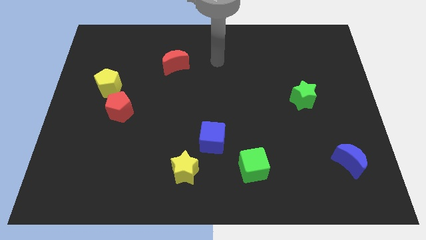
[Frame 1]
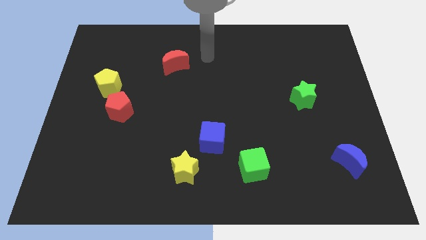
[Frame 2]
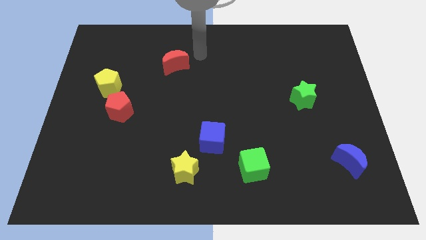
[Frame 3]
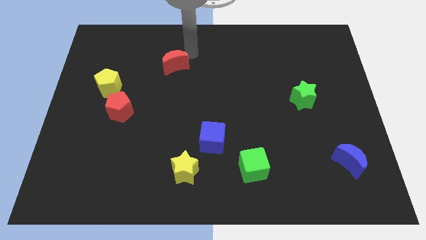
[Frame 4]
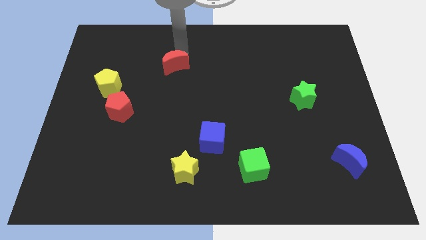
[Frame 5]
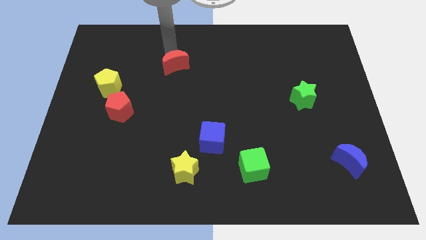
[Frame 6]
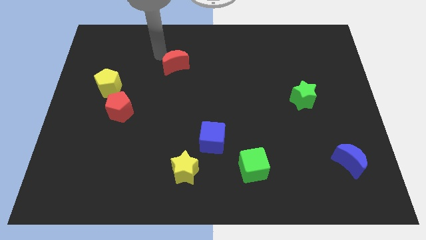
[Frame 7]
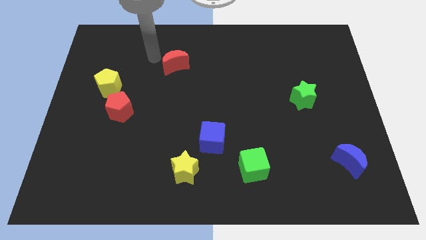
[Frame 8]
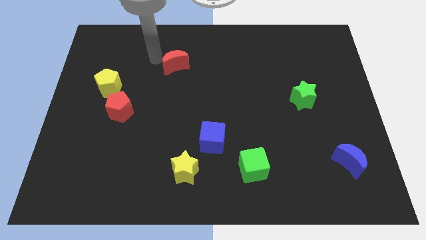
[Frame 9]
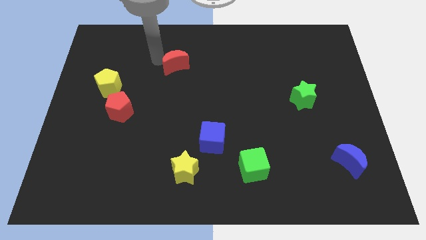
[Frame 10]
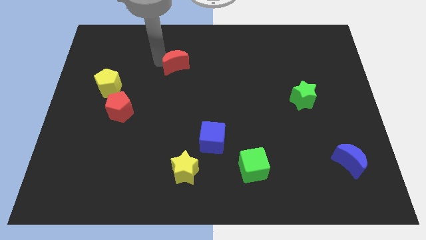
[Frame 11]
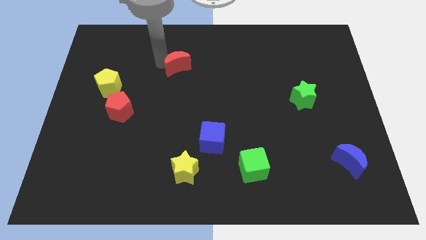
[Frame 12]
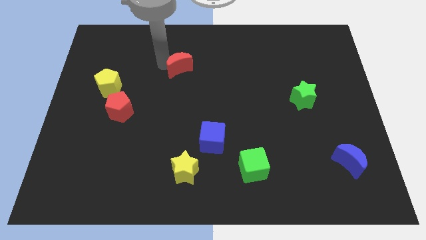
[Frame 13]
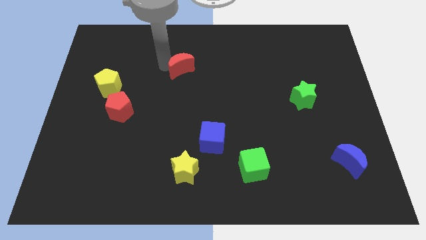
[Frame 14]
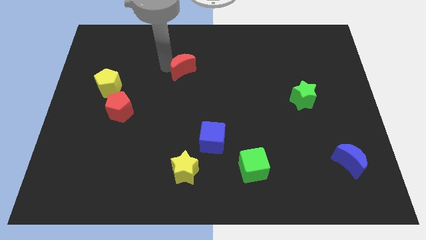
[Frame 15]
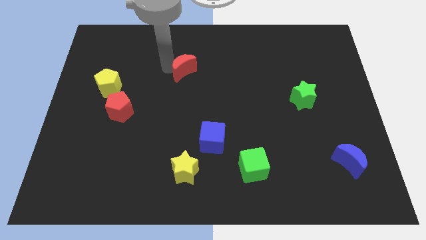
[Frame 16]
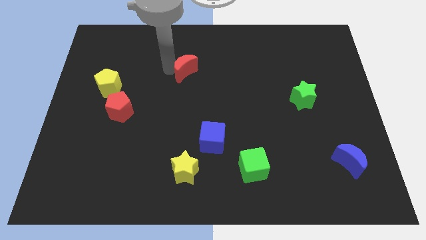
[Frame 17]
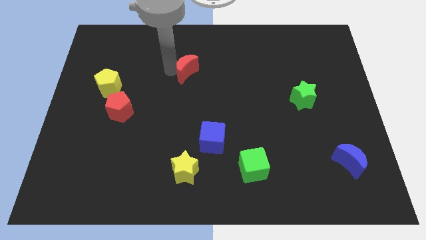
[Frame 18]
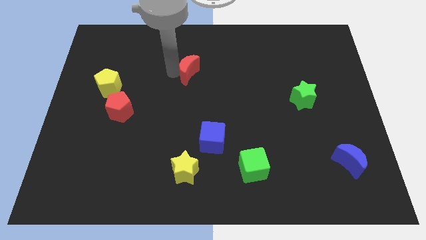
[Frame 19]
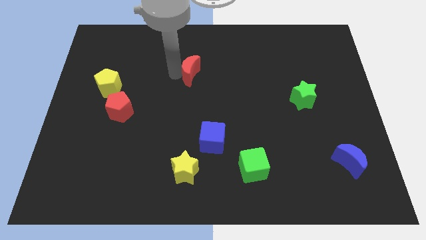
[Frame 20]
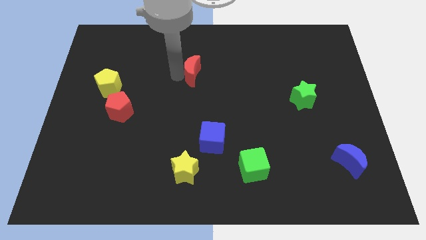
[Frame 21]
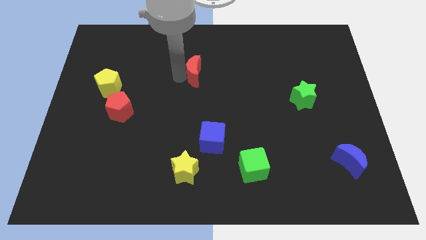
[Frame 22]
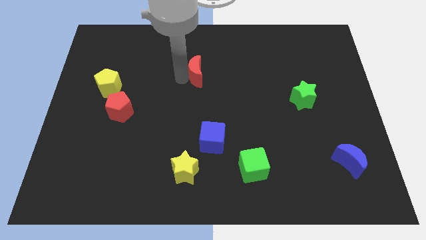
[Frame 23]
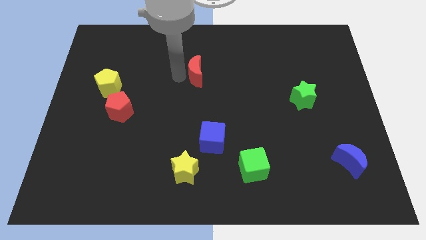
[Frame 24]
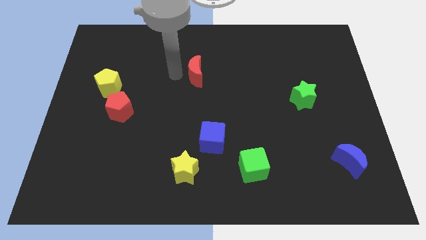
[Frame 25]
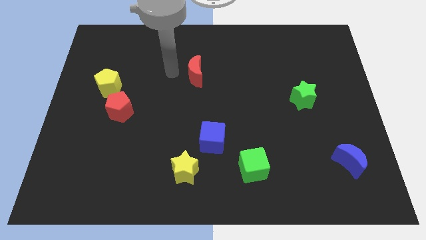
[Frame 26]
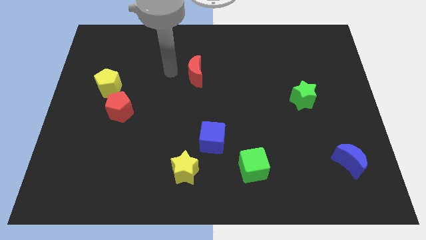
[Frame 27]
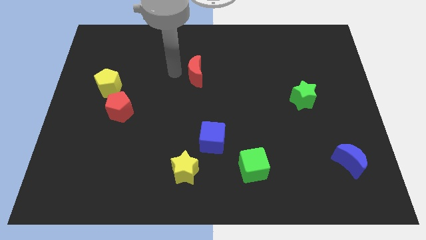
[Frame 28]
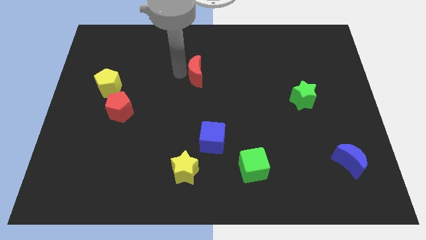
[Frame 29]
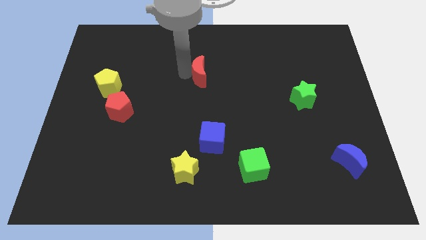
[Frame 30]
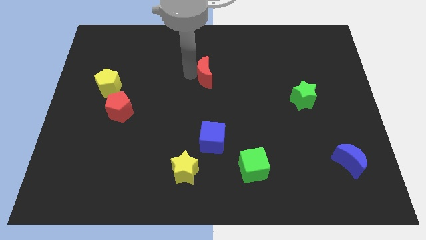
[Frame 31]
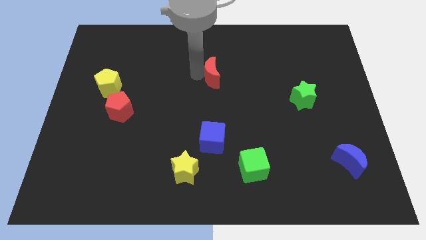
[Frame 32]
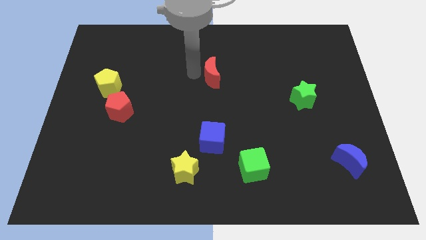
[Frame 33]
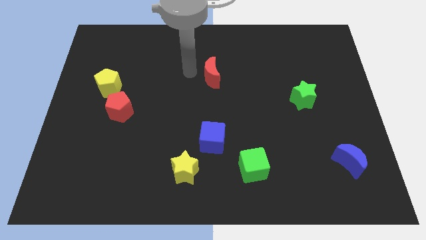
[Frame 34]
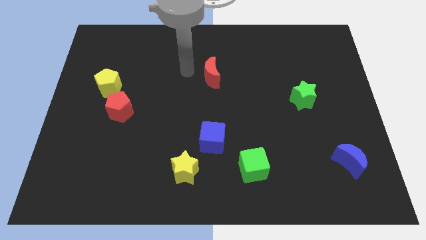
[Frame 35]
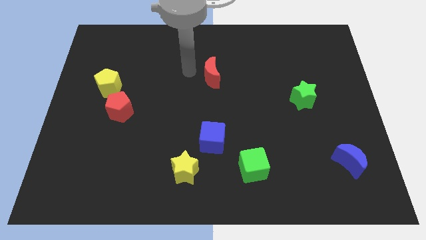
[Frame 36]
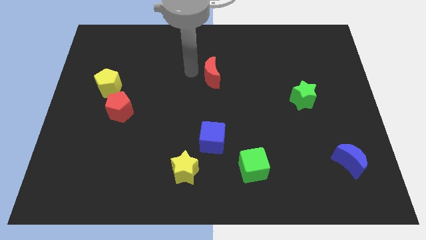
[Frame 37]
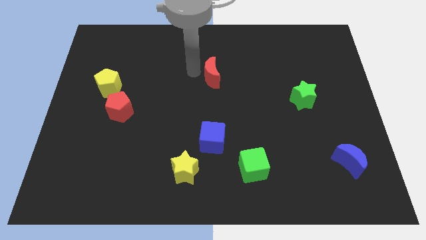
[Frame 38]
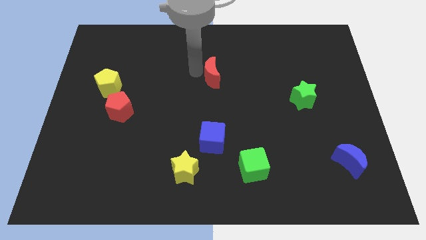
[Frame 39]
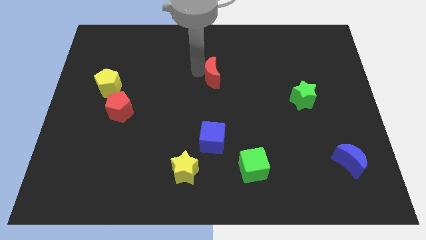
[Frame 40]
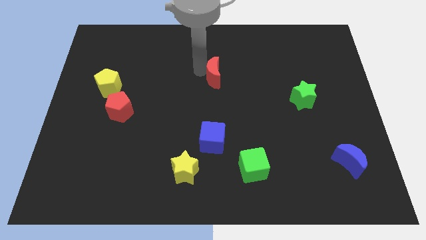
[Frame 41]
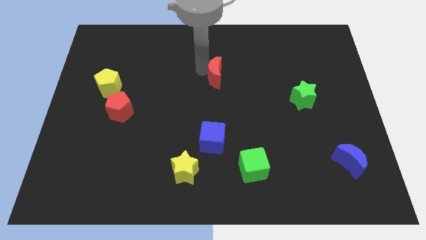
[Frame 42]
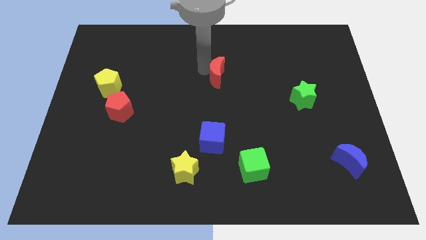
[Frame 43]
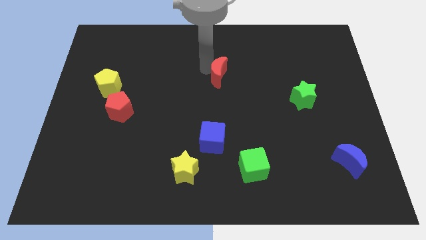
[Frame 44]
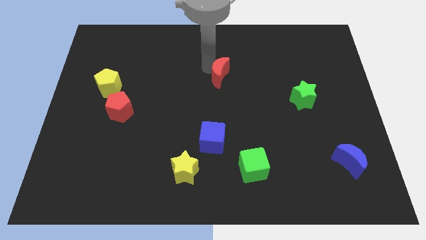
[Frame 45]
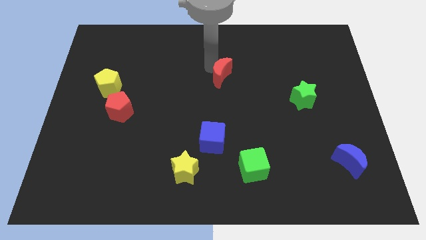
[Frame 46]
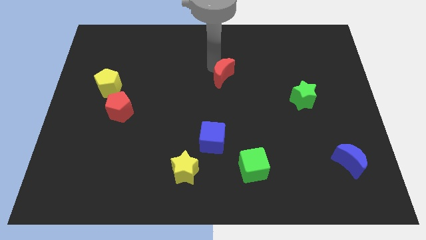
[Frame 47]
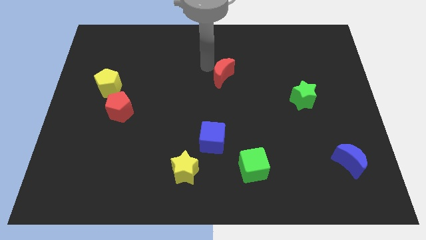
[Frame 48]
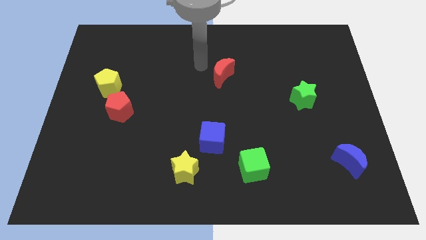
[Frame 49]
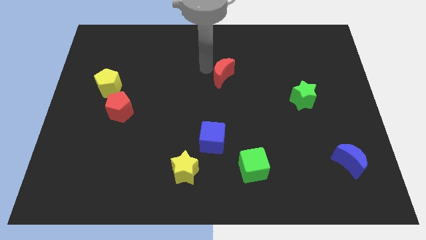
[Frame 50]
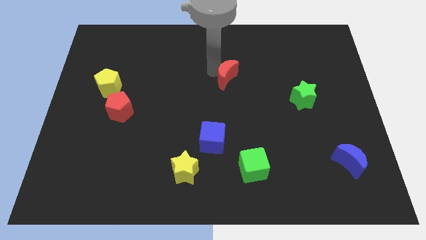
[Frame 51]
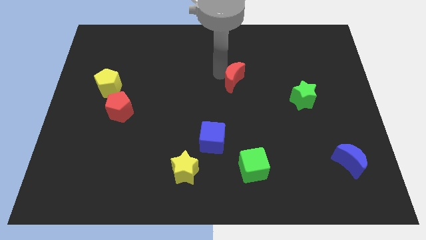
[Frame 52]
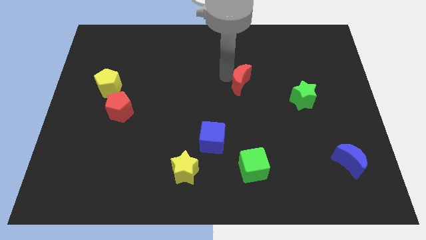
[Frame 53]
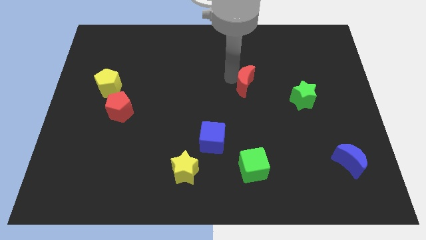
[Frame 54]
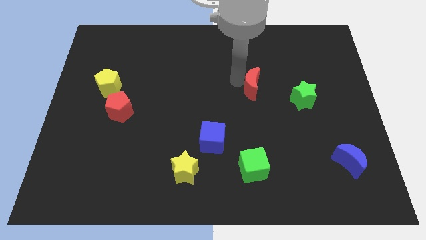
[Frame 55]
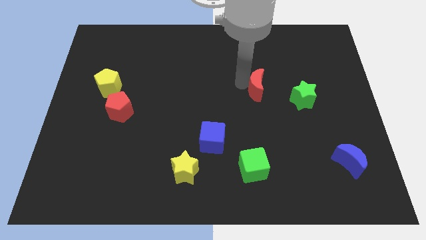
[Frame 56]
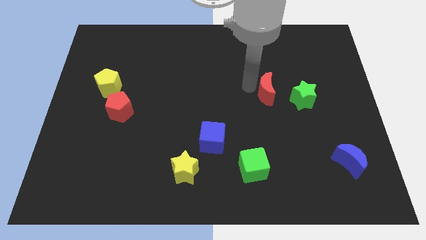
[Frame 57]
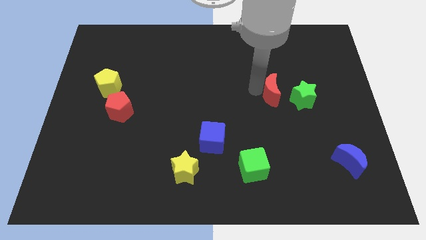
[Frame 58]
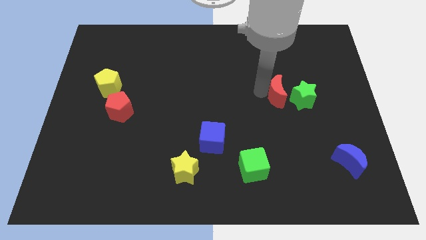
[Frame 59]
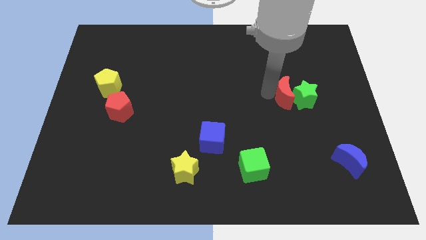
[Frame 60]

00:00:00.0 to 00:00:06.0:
slide the red moon close to the green star
